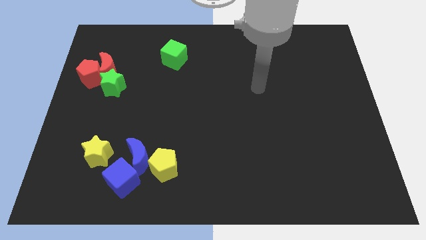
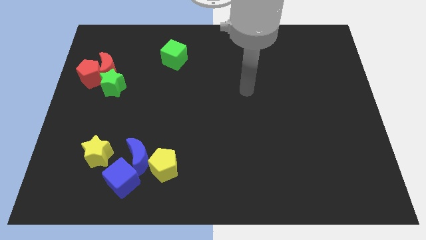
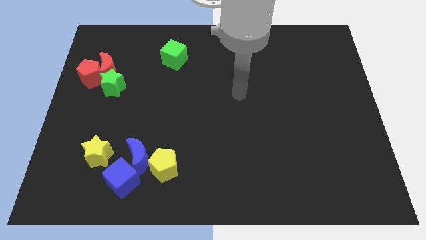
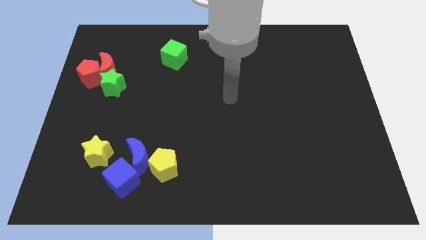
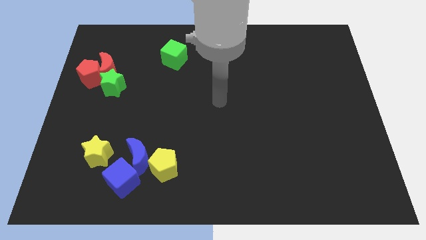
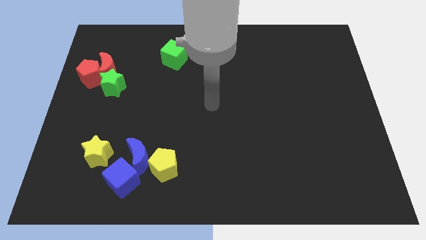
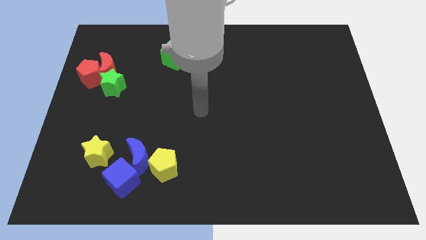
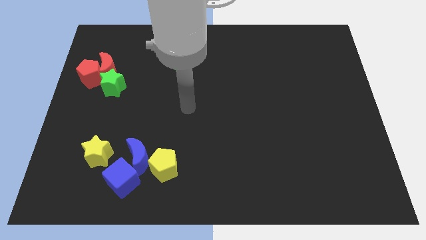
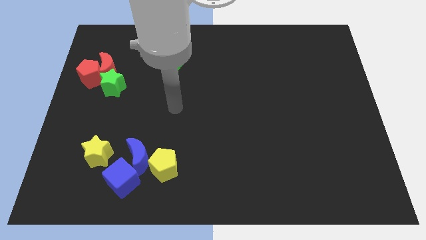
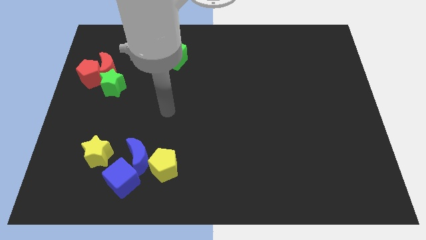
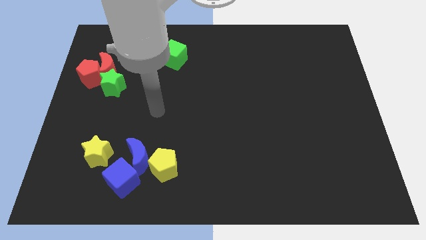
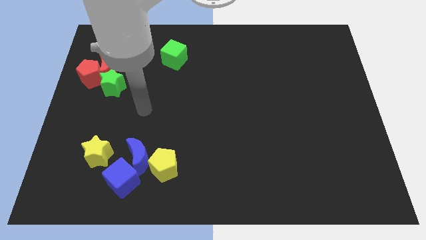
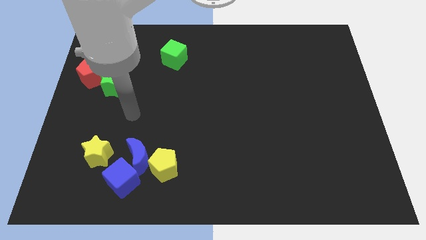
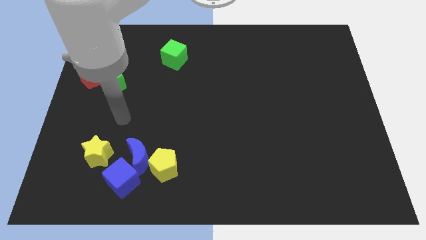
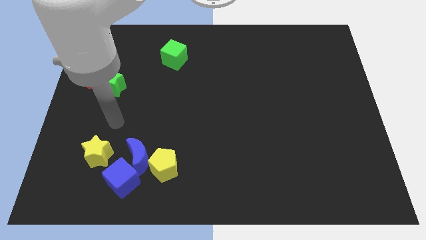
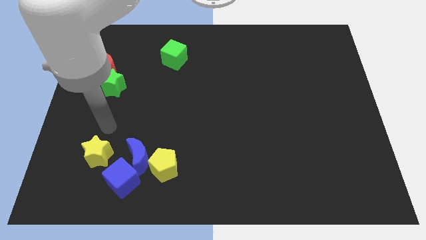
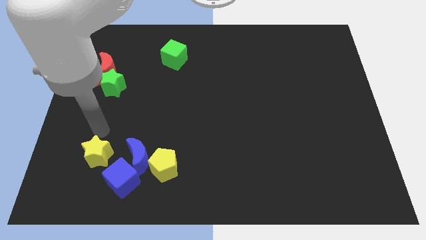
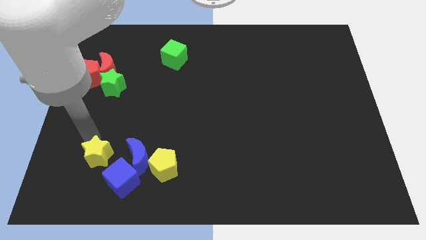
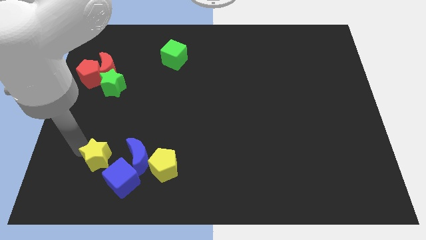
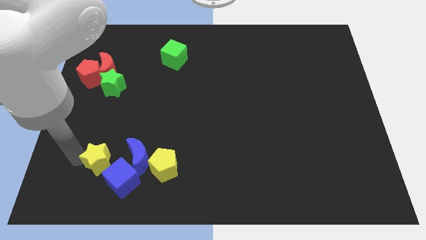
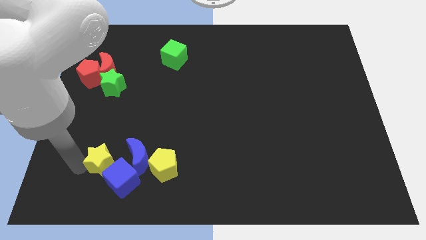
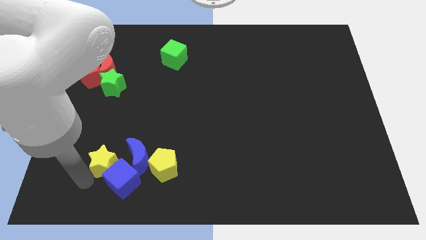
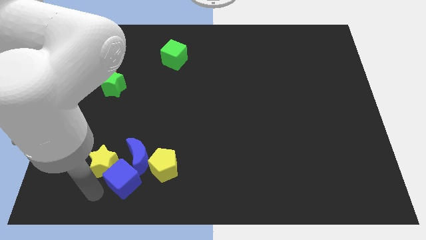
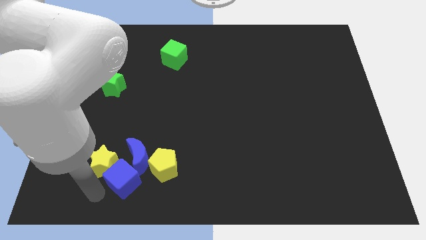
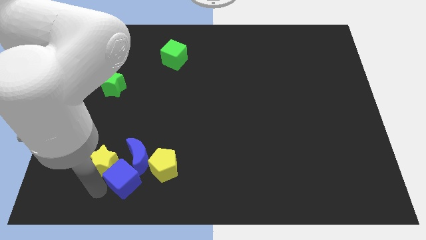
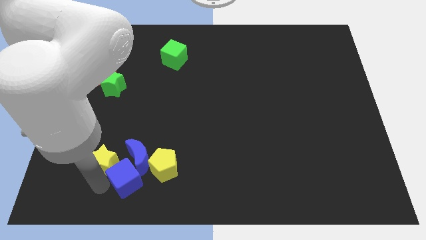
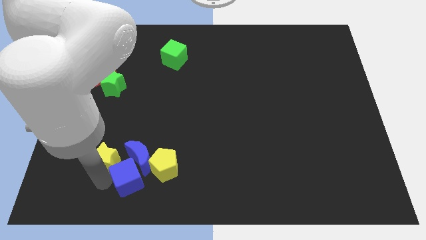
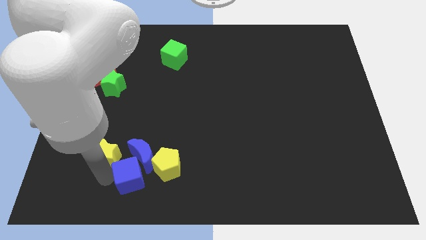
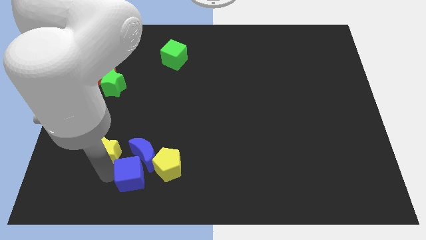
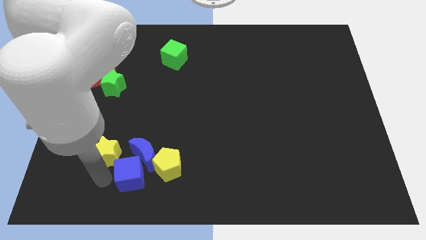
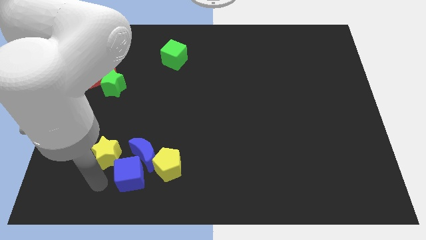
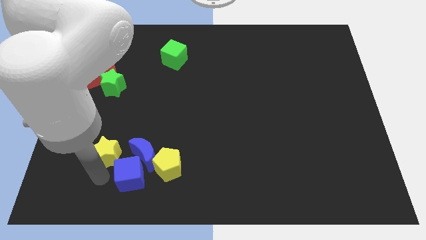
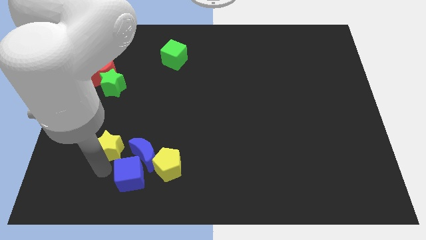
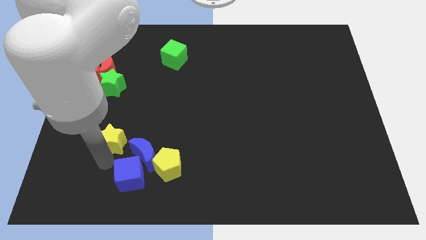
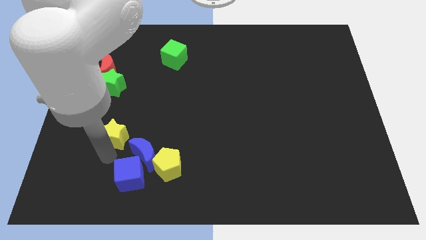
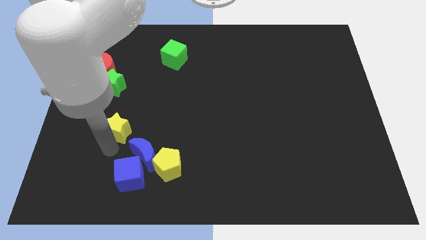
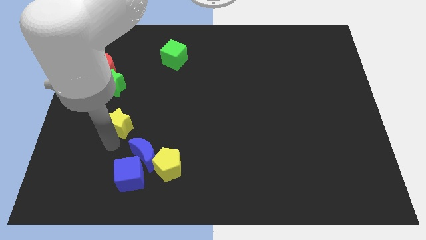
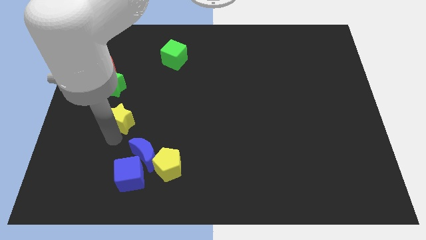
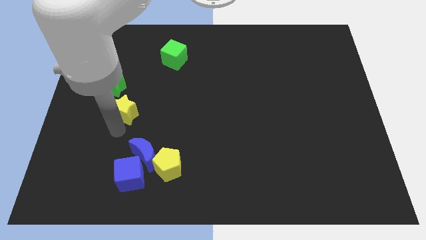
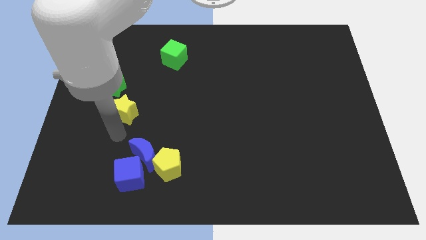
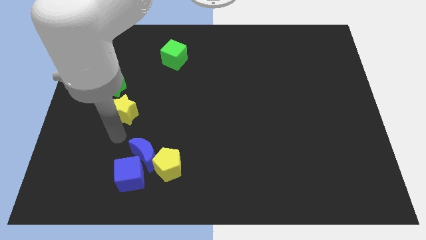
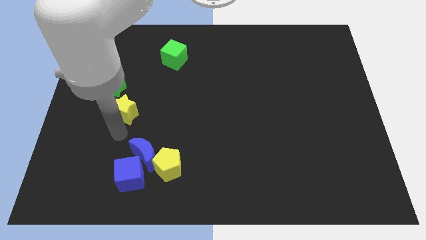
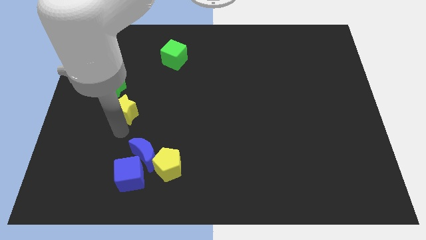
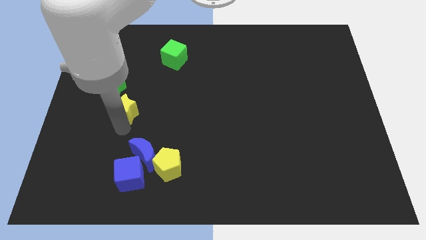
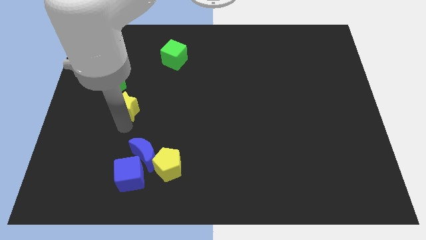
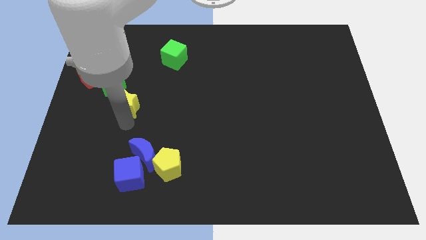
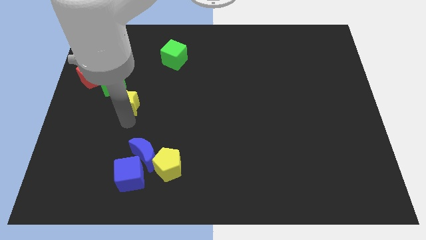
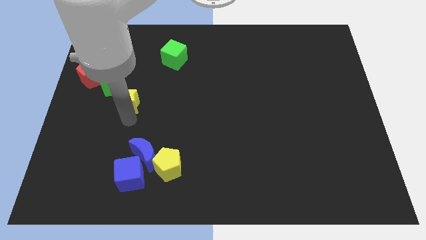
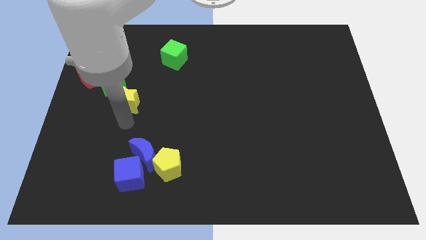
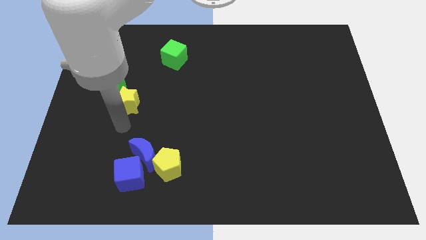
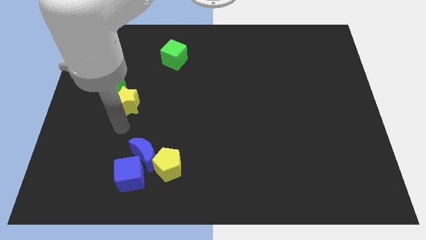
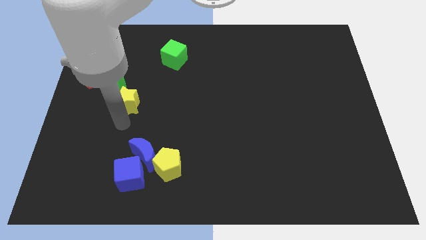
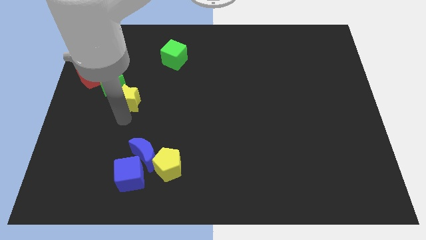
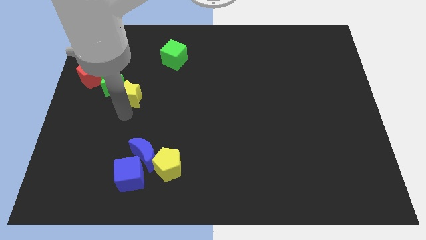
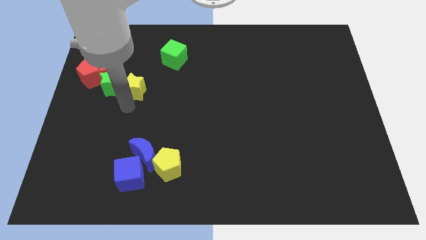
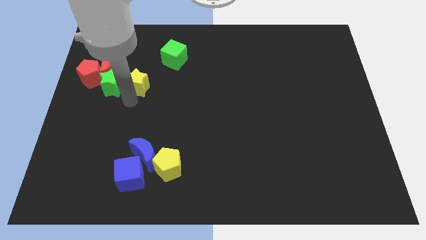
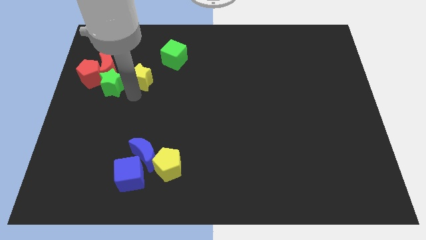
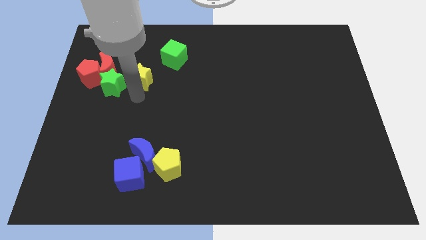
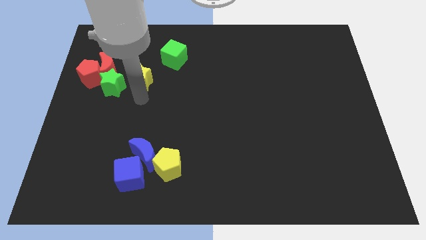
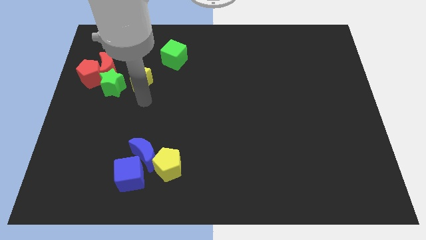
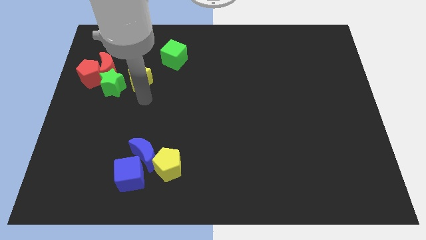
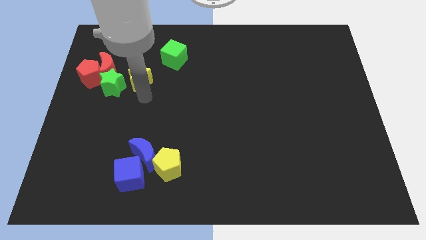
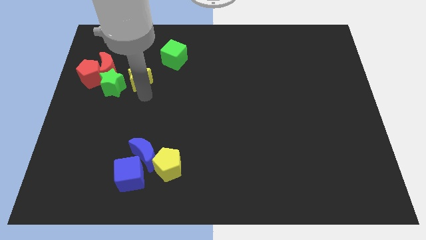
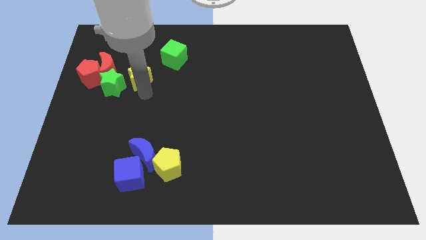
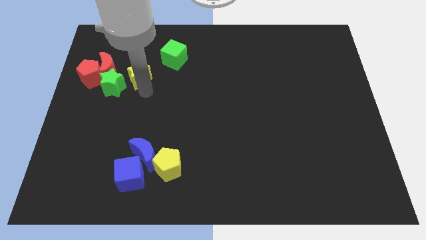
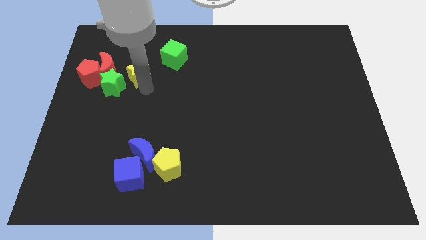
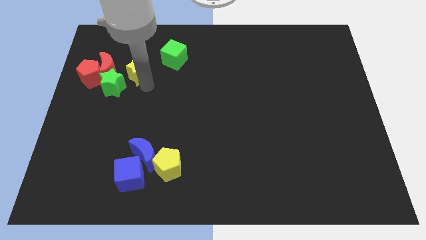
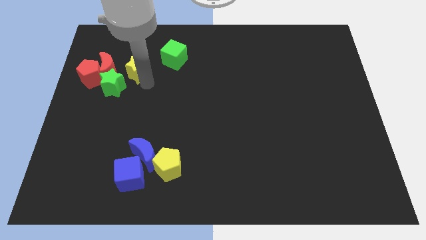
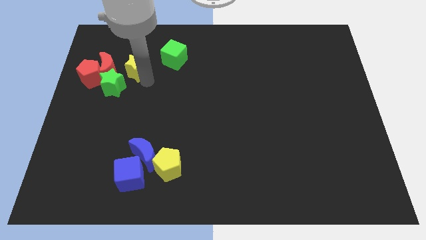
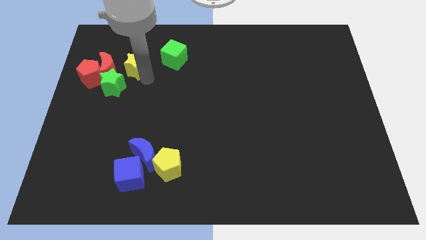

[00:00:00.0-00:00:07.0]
slide the yellow star to the top right side of the red moon

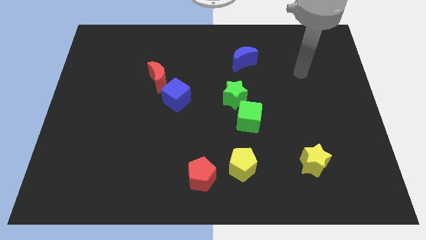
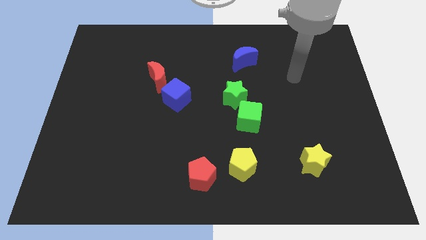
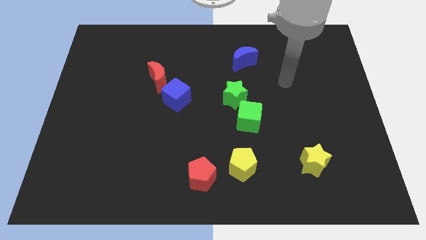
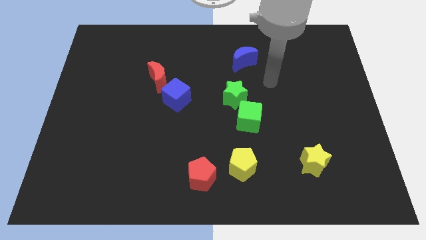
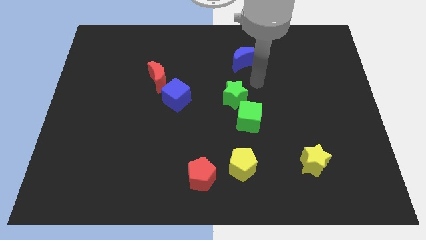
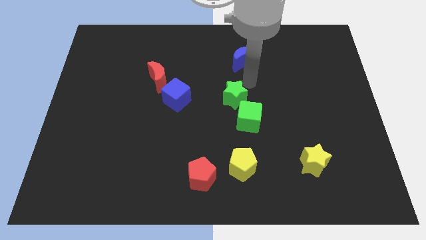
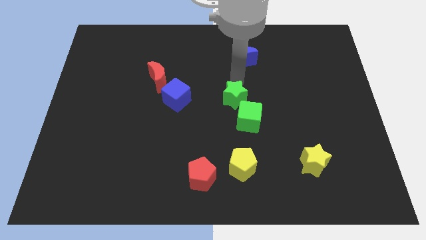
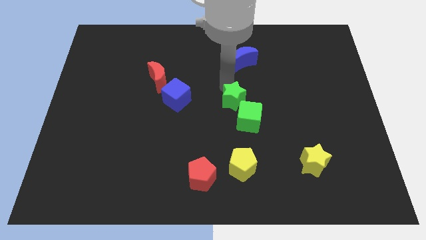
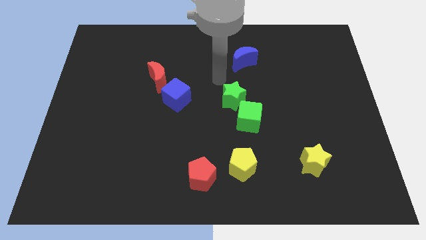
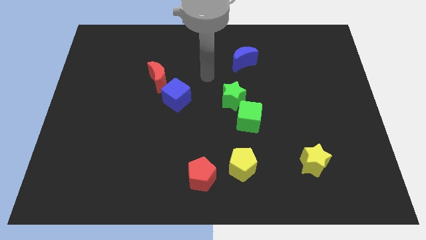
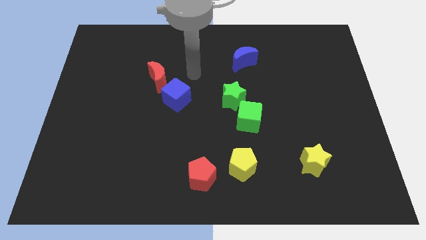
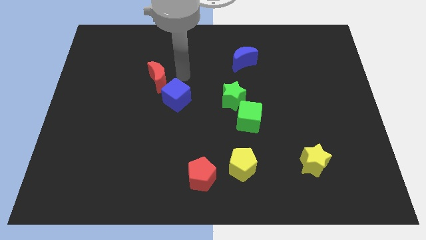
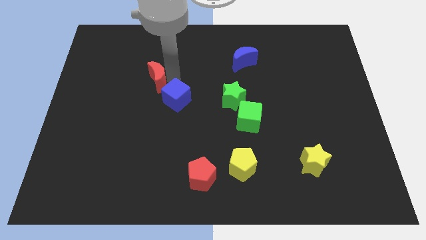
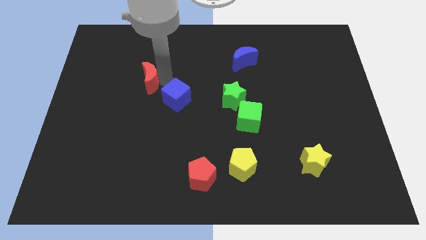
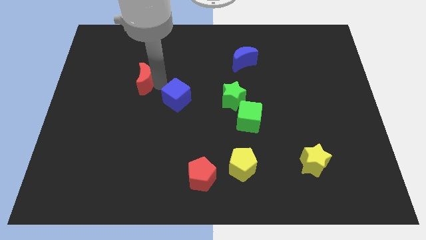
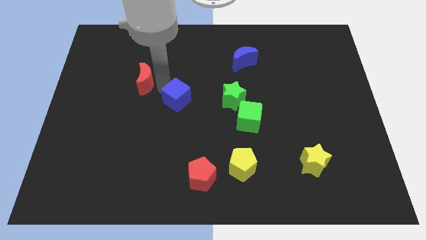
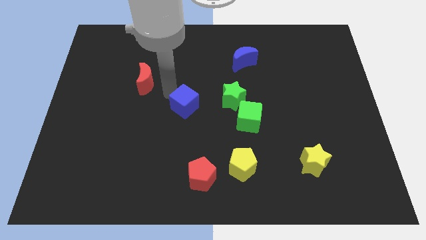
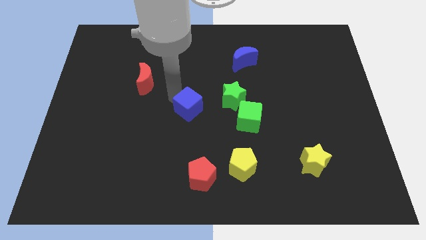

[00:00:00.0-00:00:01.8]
move the blue cube to the left of the green cube

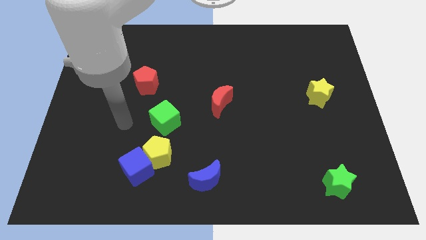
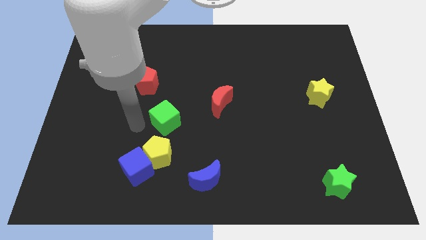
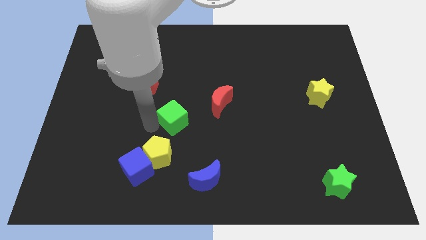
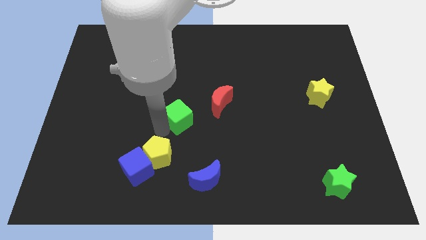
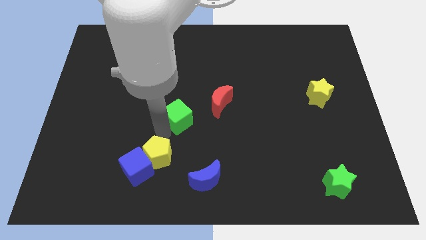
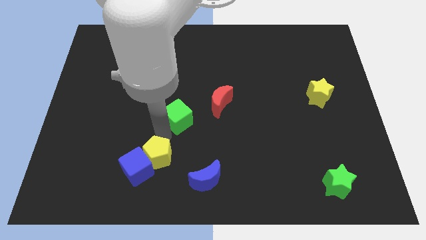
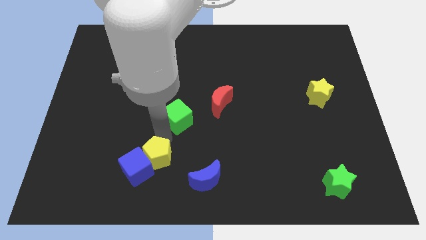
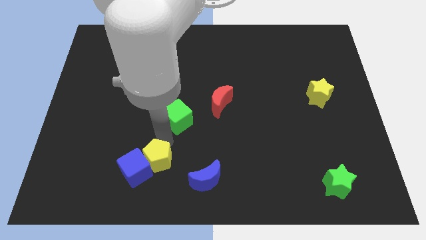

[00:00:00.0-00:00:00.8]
push the yellow pentagon to the left side of the blue moon
